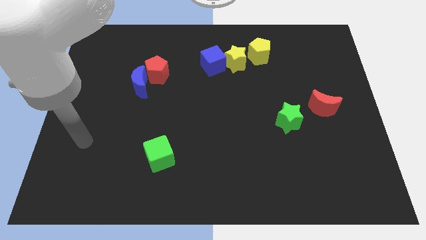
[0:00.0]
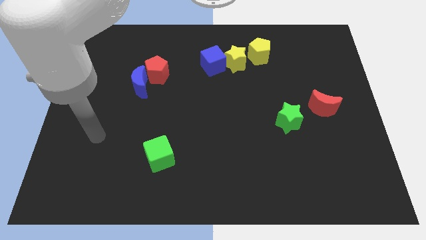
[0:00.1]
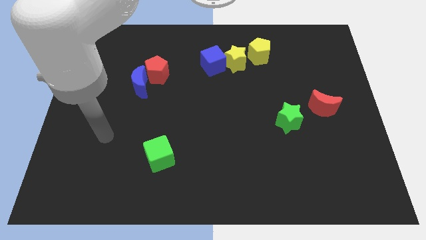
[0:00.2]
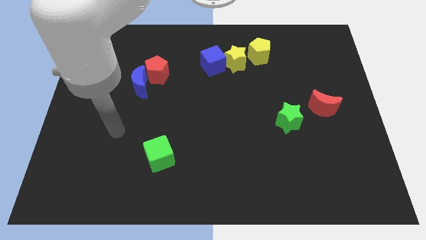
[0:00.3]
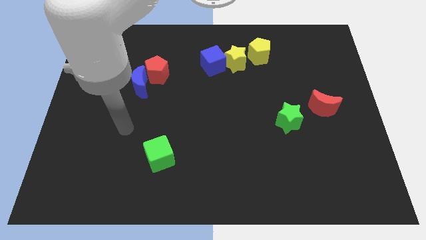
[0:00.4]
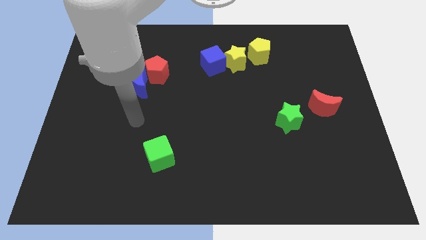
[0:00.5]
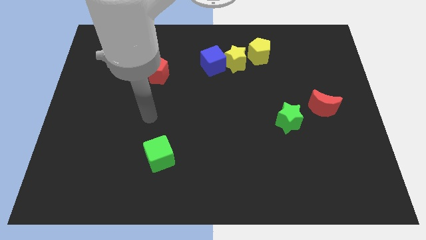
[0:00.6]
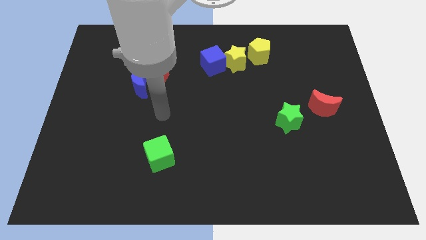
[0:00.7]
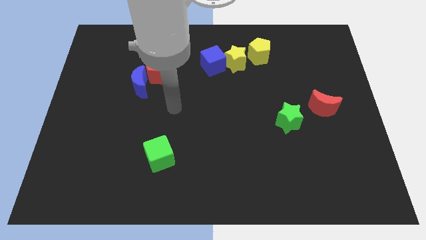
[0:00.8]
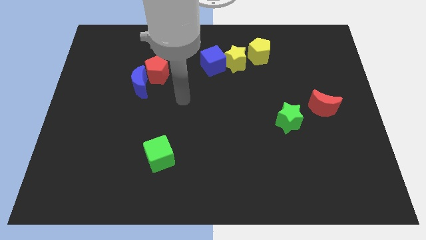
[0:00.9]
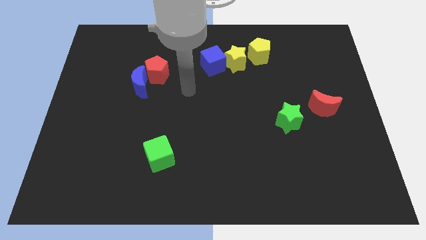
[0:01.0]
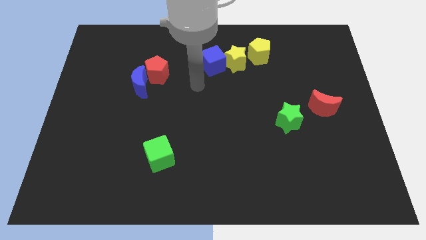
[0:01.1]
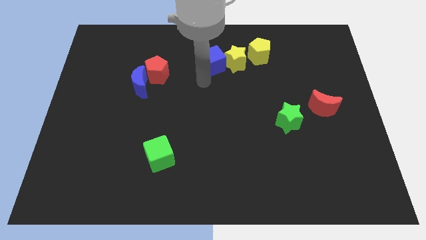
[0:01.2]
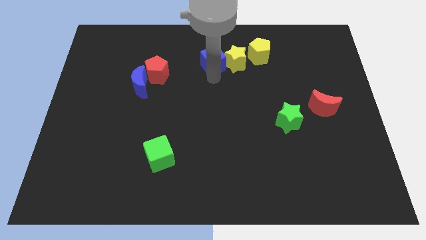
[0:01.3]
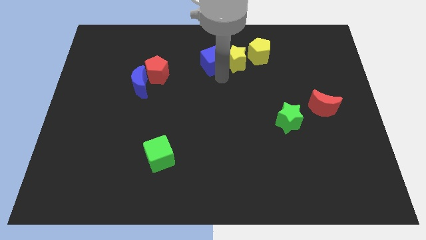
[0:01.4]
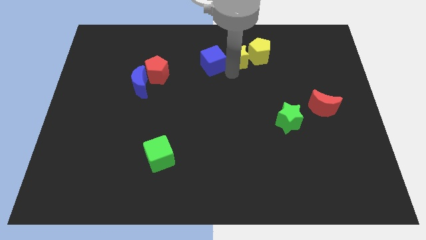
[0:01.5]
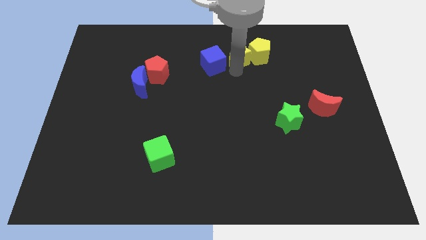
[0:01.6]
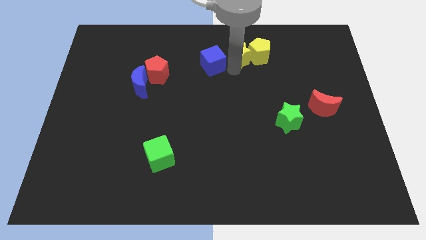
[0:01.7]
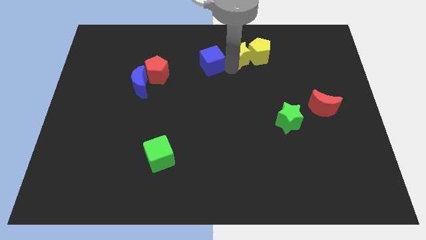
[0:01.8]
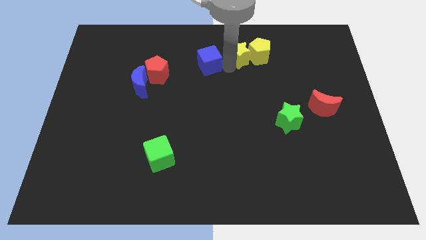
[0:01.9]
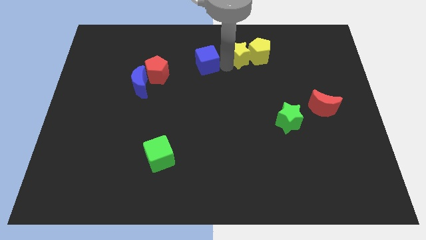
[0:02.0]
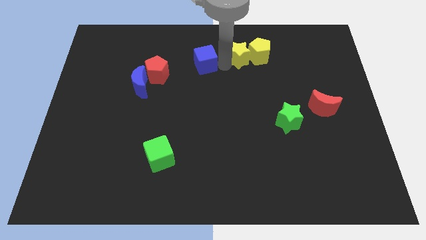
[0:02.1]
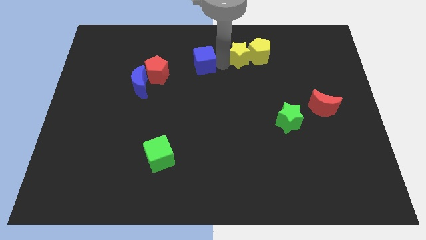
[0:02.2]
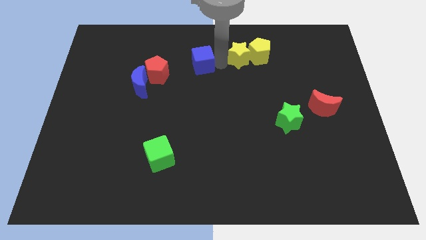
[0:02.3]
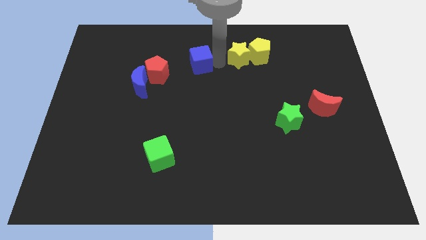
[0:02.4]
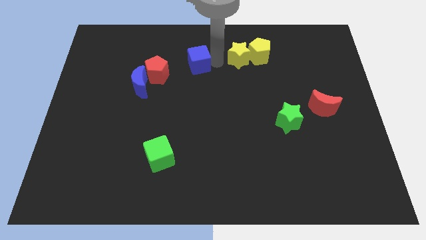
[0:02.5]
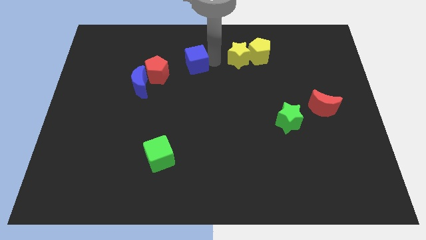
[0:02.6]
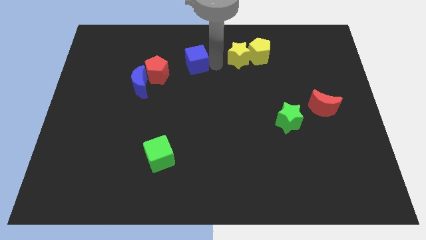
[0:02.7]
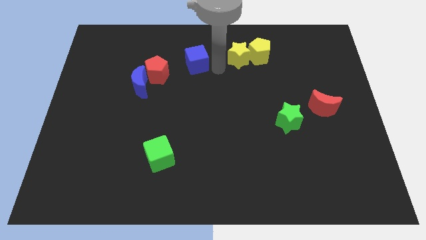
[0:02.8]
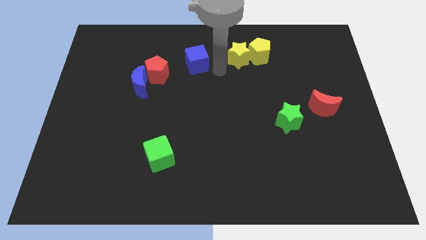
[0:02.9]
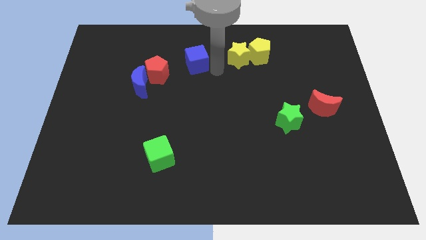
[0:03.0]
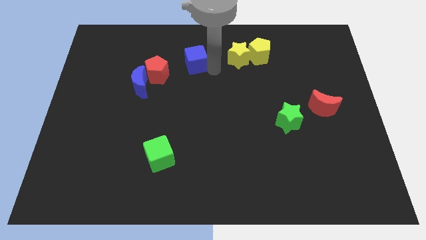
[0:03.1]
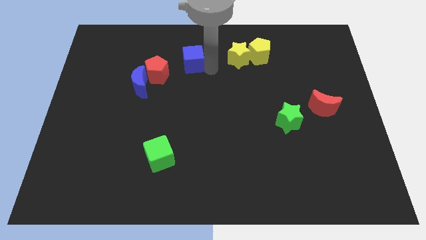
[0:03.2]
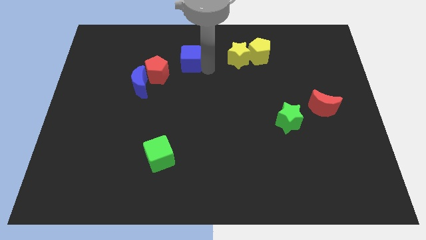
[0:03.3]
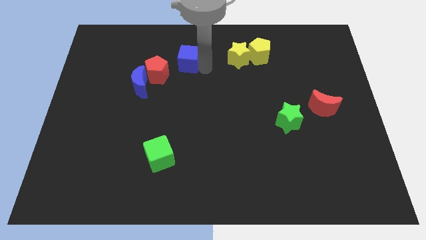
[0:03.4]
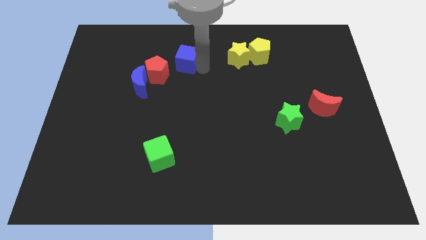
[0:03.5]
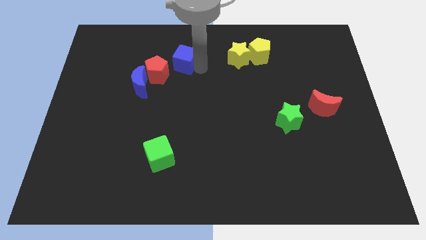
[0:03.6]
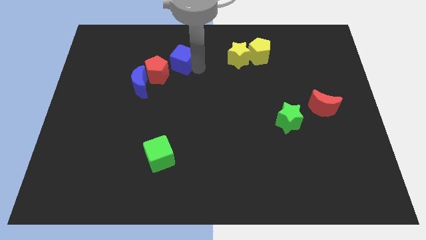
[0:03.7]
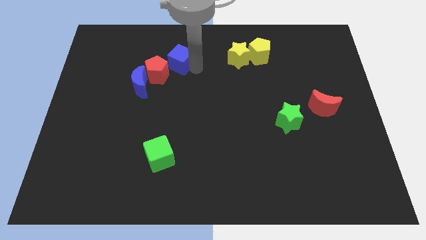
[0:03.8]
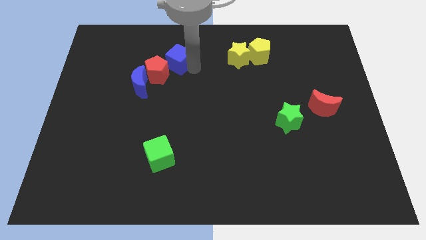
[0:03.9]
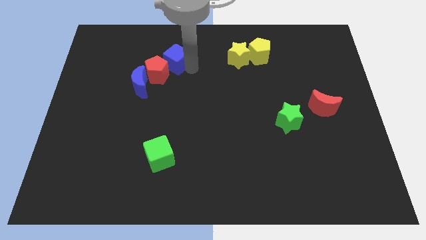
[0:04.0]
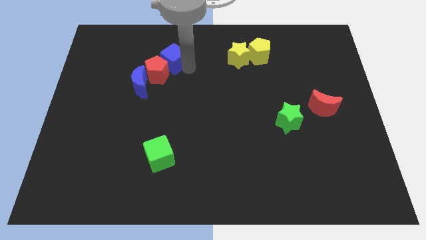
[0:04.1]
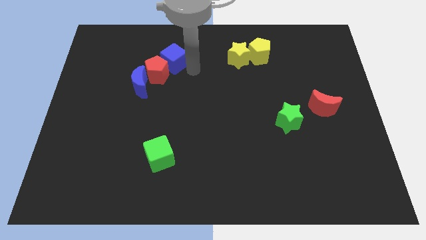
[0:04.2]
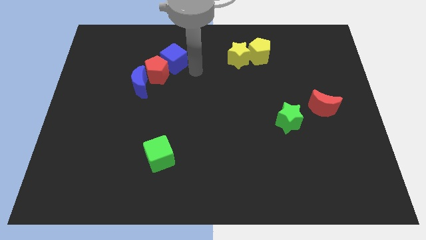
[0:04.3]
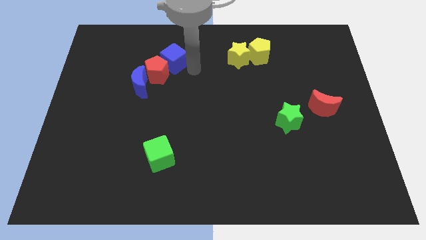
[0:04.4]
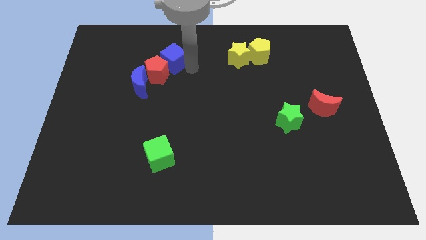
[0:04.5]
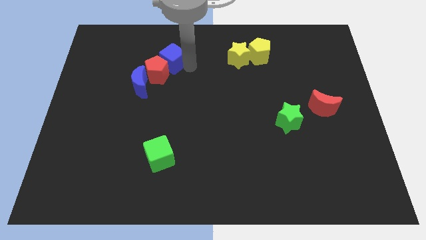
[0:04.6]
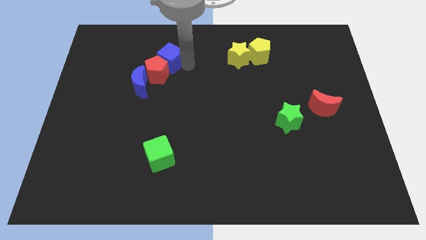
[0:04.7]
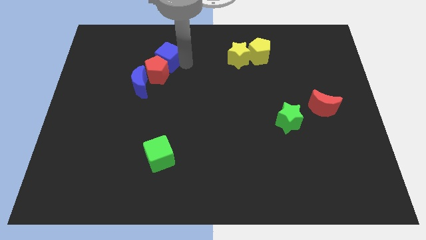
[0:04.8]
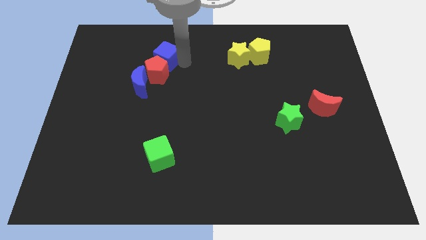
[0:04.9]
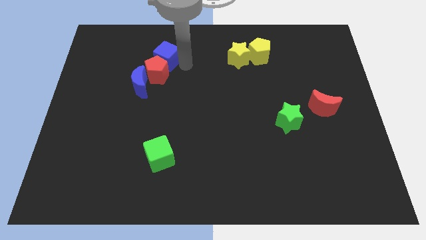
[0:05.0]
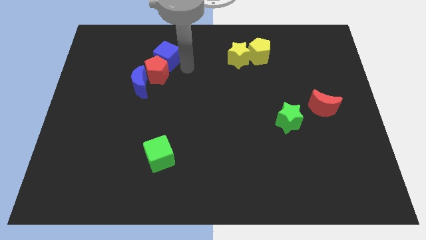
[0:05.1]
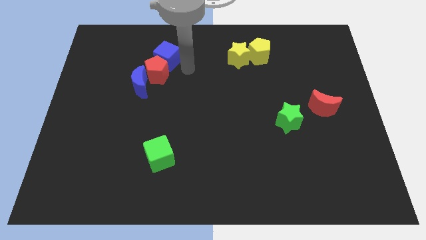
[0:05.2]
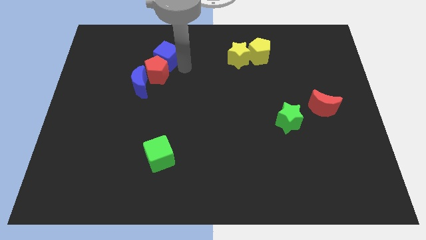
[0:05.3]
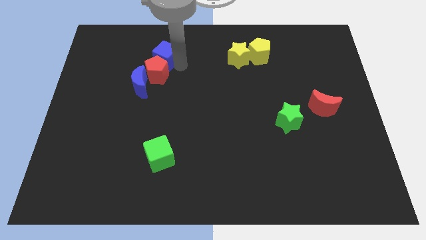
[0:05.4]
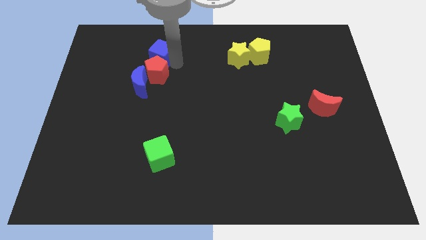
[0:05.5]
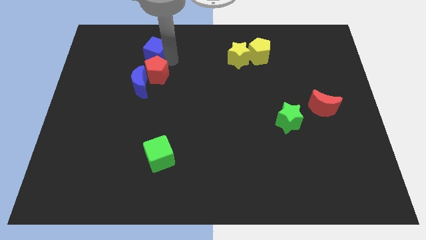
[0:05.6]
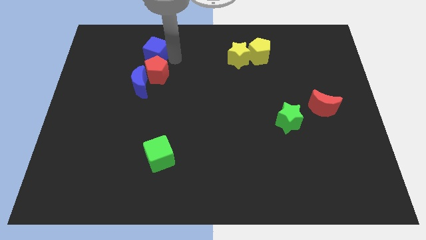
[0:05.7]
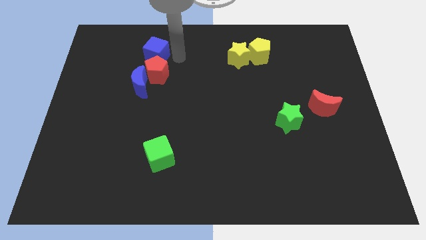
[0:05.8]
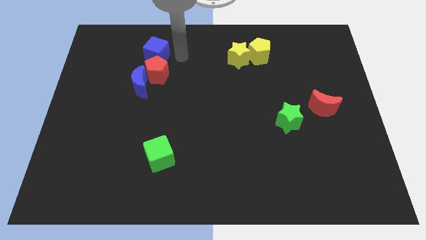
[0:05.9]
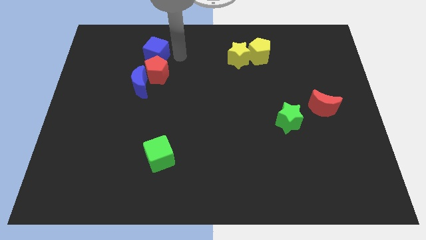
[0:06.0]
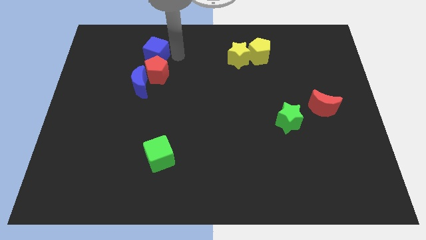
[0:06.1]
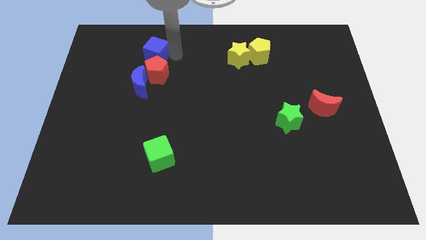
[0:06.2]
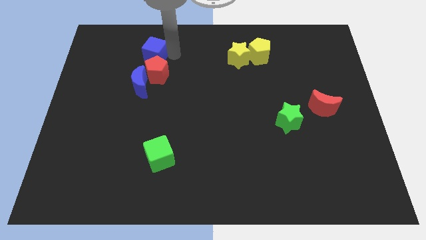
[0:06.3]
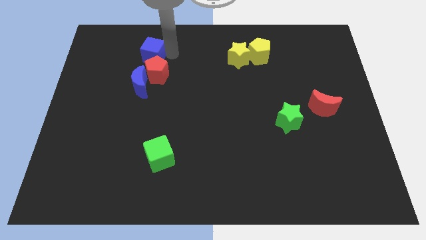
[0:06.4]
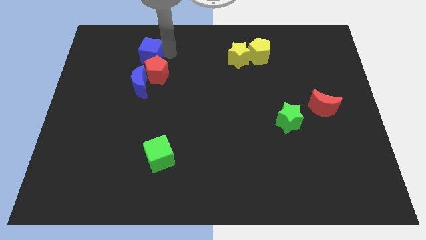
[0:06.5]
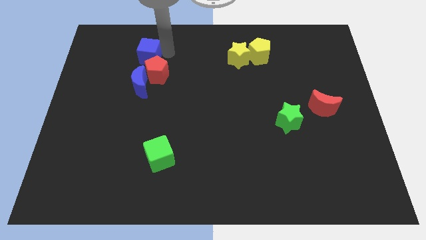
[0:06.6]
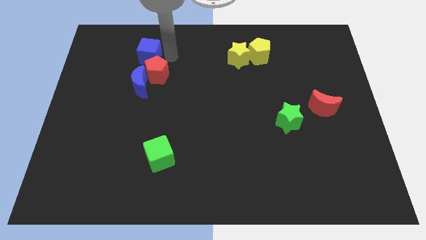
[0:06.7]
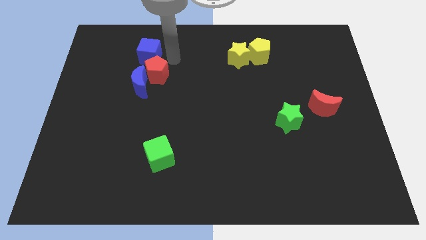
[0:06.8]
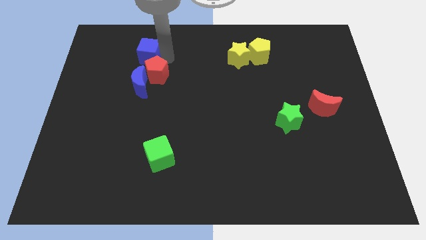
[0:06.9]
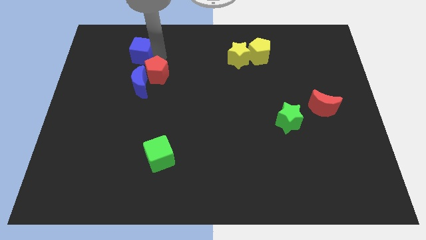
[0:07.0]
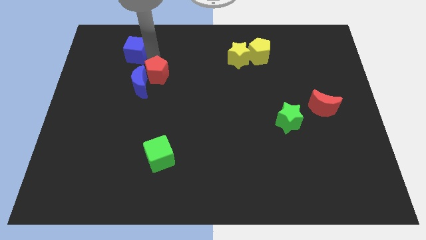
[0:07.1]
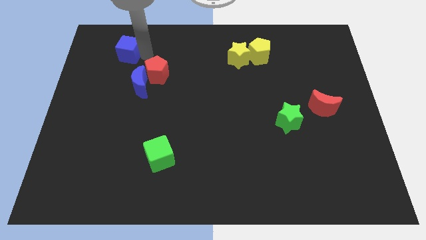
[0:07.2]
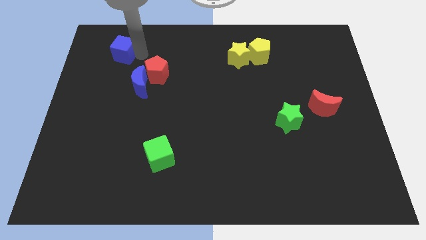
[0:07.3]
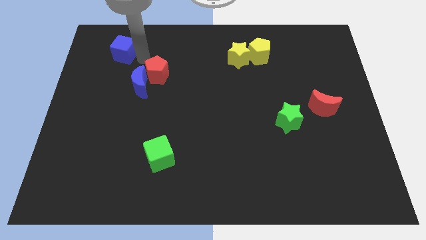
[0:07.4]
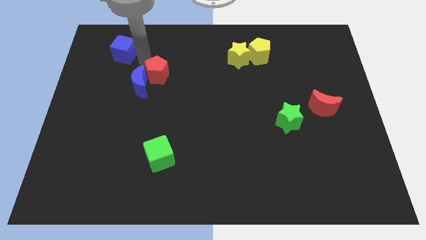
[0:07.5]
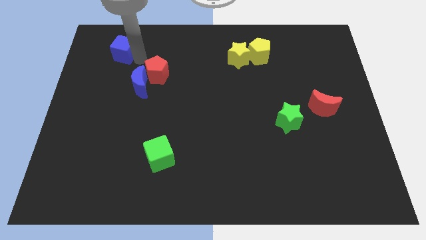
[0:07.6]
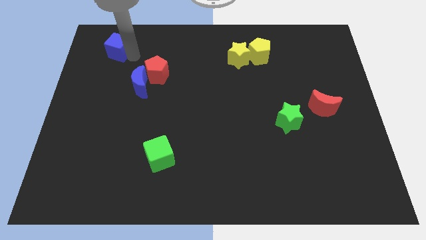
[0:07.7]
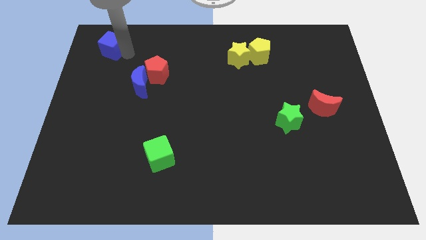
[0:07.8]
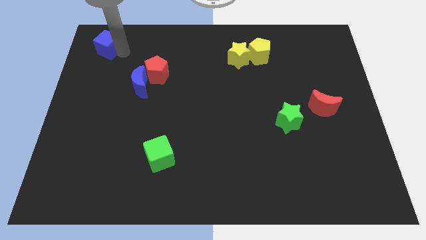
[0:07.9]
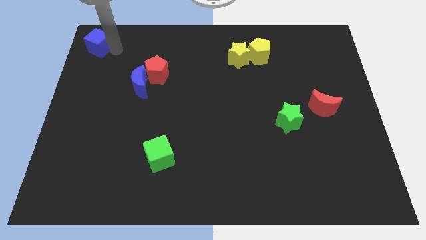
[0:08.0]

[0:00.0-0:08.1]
put the blue cube to the upper left corner
